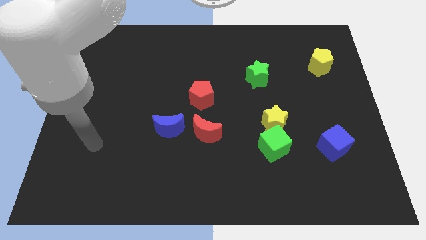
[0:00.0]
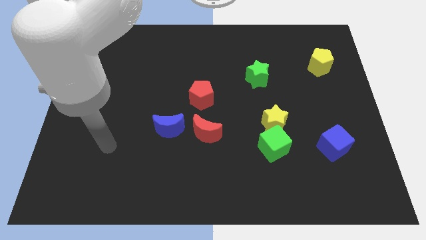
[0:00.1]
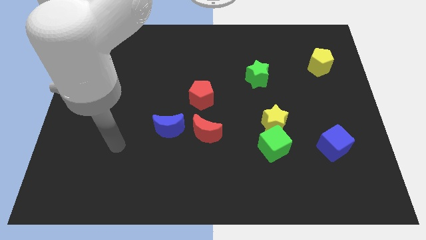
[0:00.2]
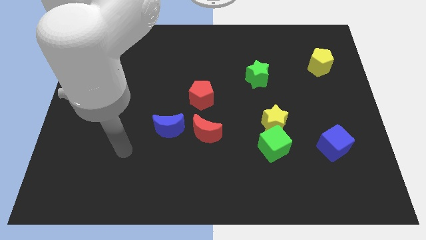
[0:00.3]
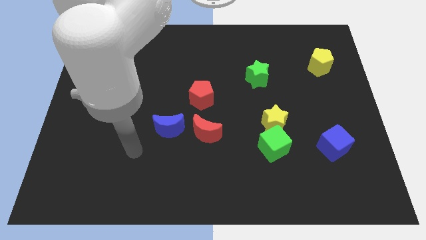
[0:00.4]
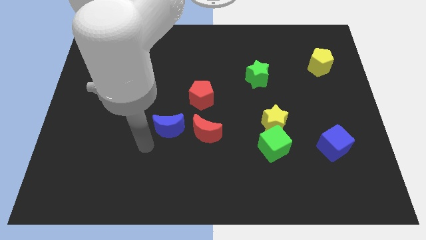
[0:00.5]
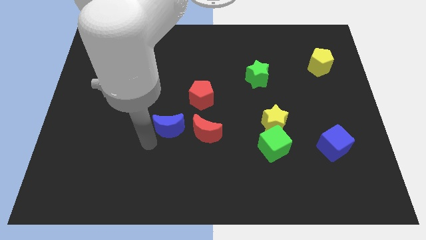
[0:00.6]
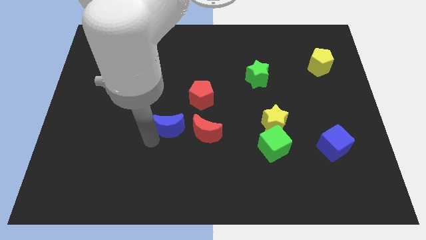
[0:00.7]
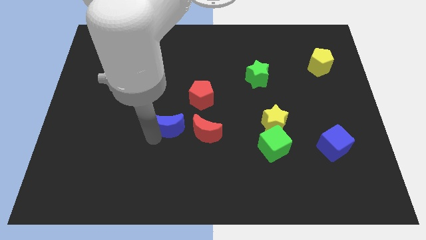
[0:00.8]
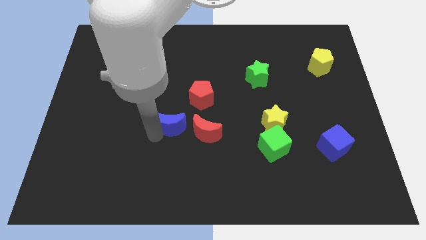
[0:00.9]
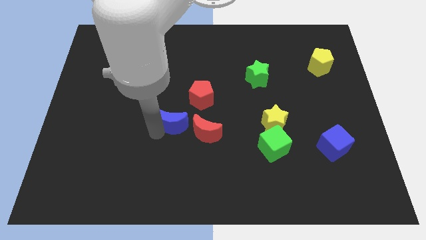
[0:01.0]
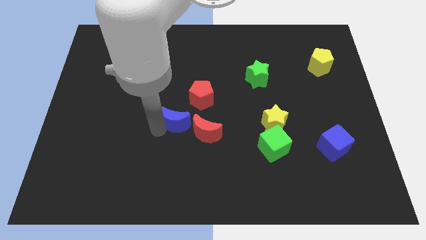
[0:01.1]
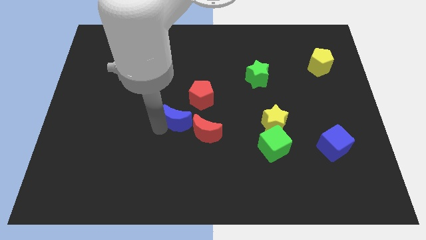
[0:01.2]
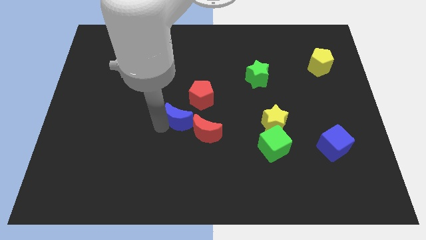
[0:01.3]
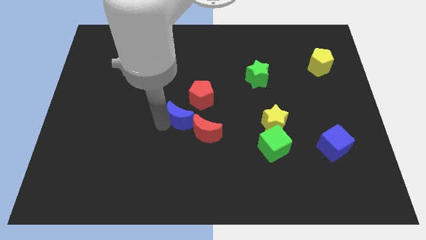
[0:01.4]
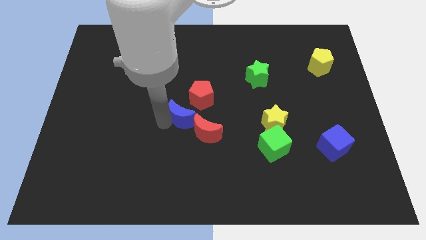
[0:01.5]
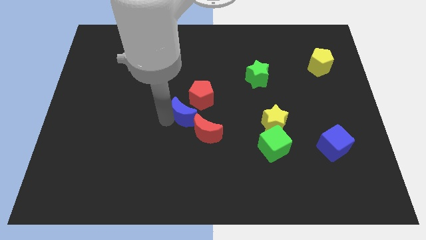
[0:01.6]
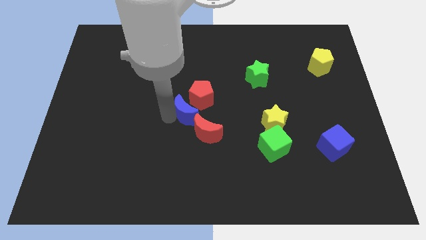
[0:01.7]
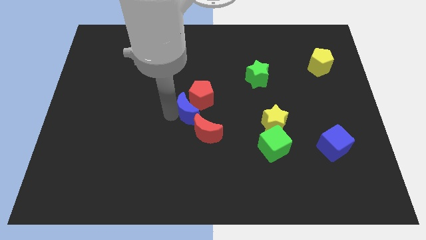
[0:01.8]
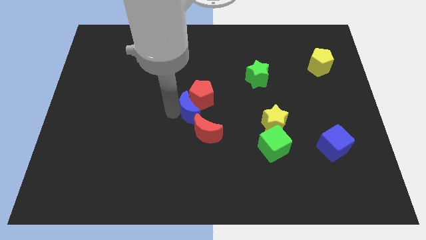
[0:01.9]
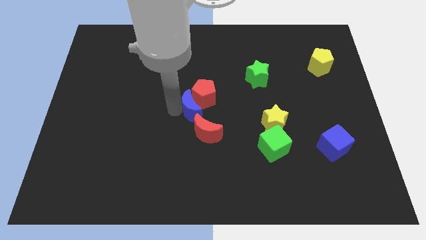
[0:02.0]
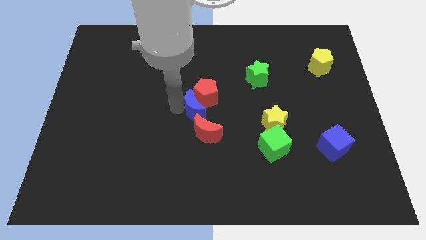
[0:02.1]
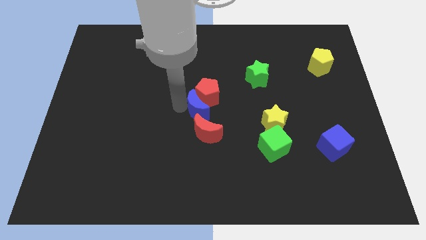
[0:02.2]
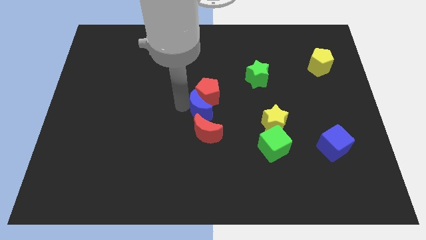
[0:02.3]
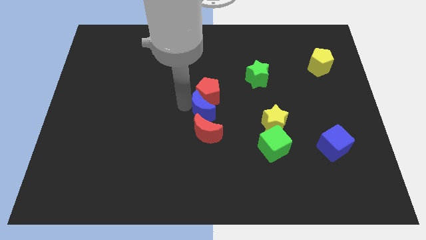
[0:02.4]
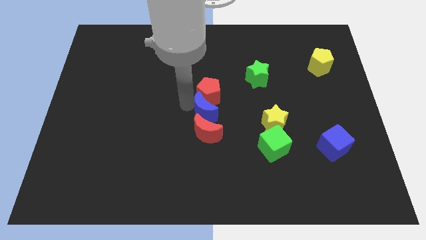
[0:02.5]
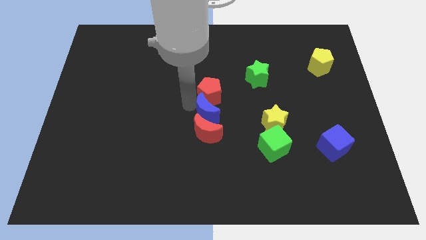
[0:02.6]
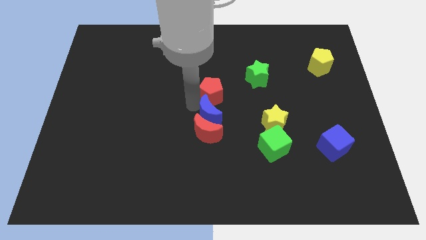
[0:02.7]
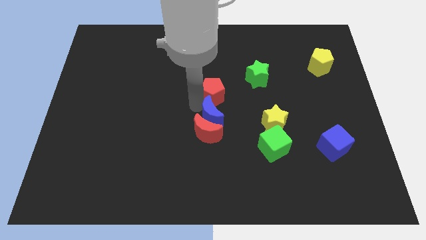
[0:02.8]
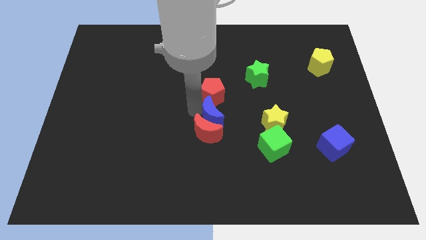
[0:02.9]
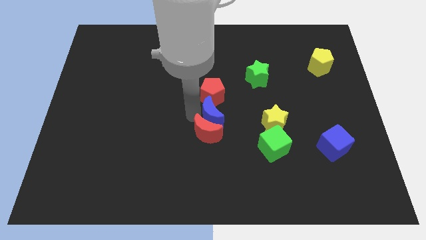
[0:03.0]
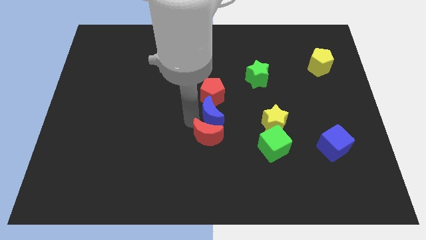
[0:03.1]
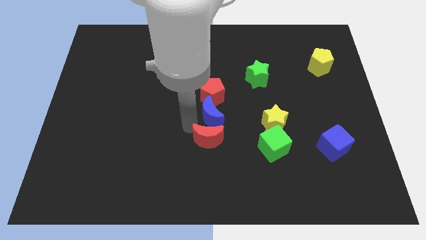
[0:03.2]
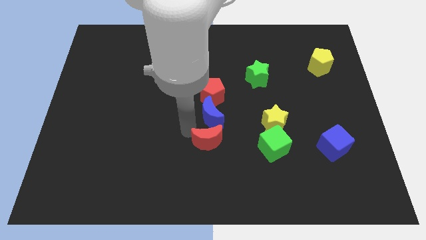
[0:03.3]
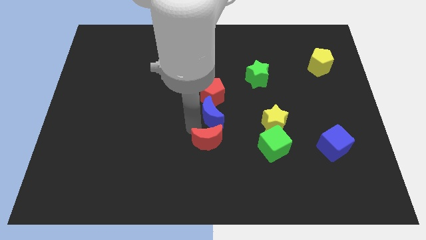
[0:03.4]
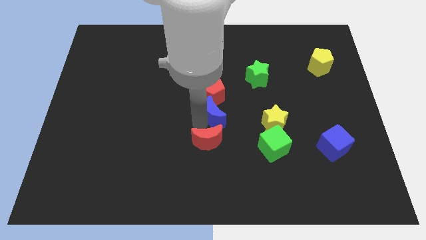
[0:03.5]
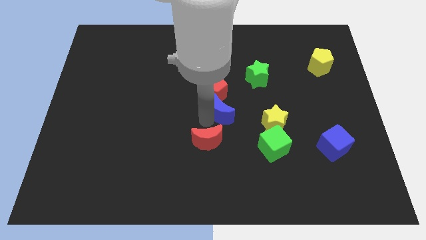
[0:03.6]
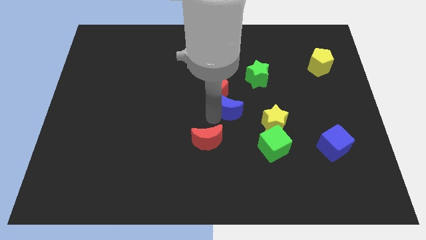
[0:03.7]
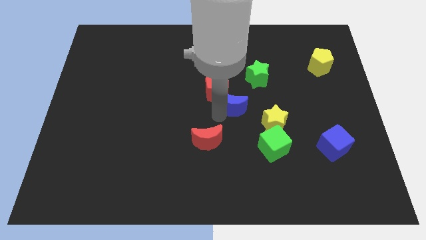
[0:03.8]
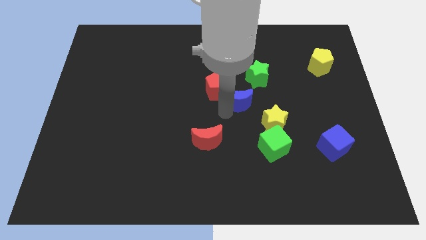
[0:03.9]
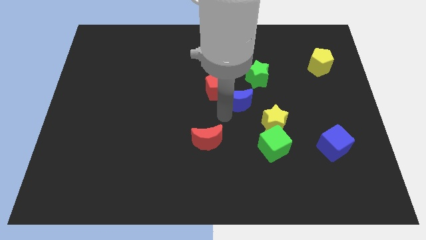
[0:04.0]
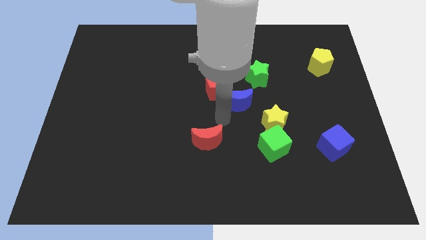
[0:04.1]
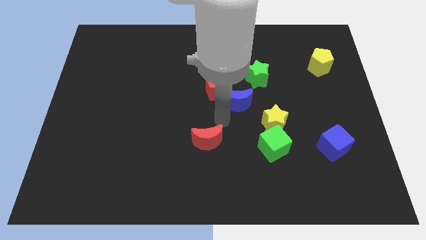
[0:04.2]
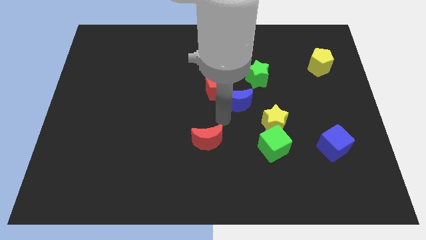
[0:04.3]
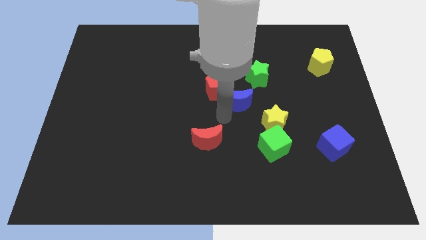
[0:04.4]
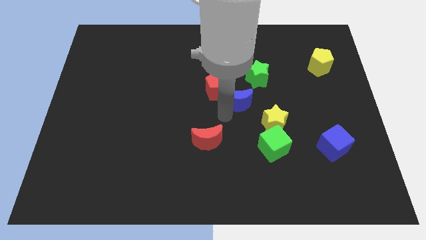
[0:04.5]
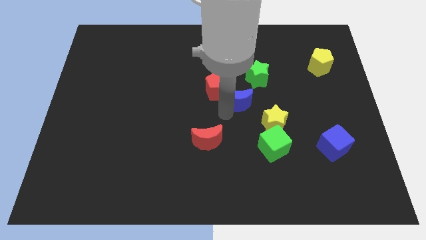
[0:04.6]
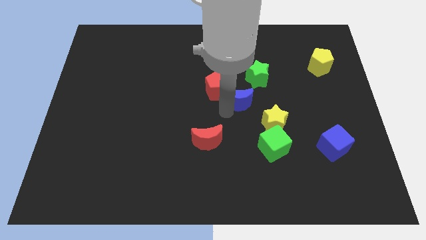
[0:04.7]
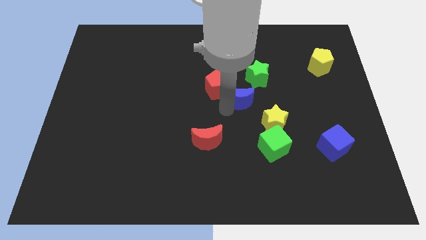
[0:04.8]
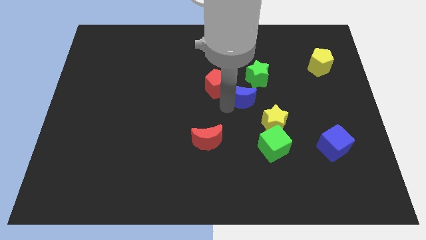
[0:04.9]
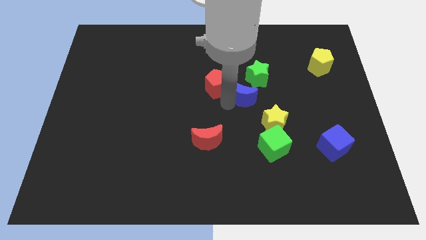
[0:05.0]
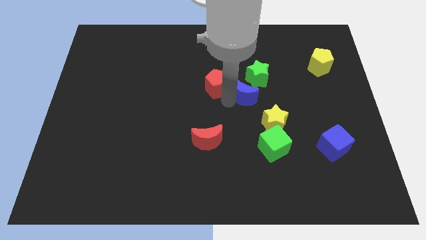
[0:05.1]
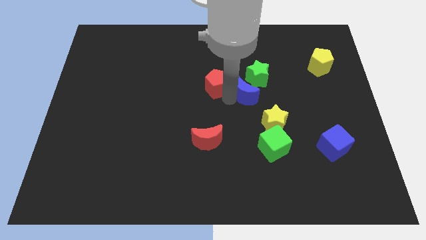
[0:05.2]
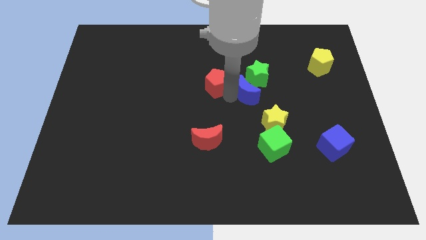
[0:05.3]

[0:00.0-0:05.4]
push the blue moon close to the green star

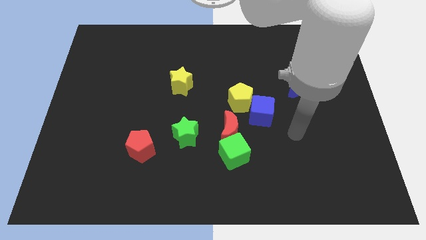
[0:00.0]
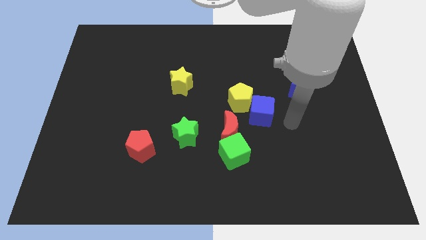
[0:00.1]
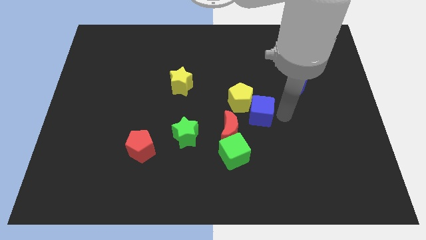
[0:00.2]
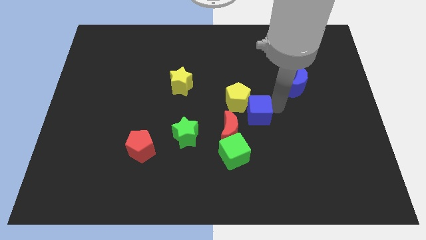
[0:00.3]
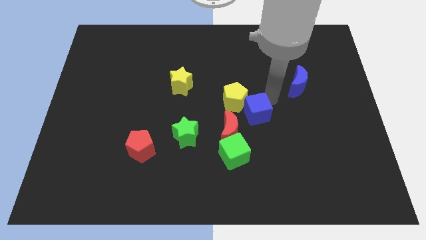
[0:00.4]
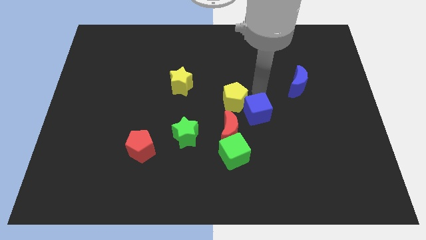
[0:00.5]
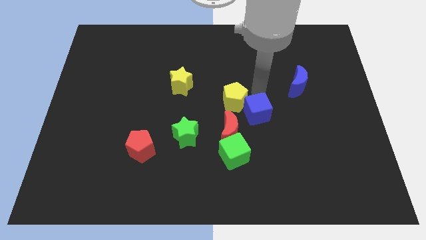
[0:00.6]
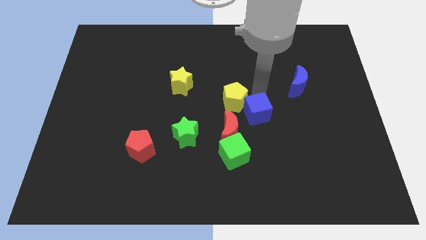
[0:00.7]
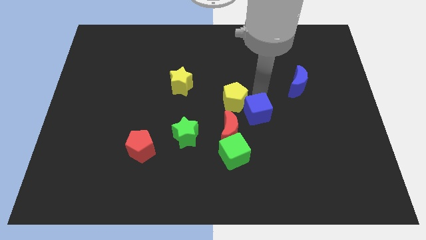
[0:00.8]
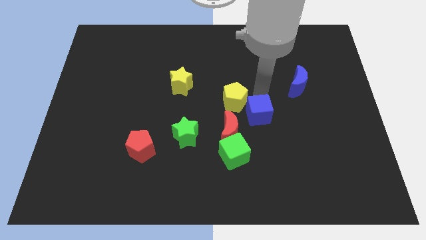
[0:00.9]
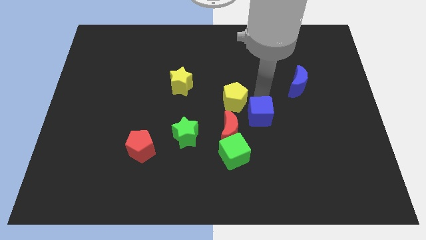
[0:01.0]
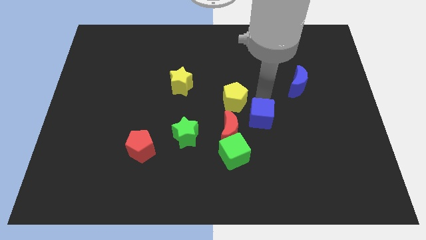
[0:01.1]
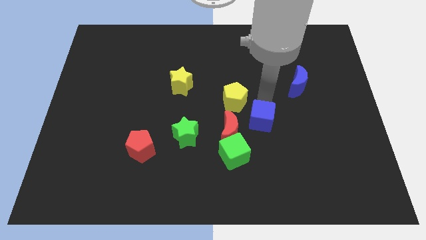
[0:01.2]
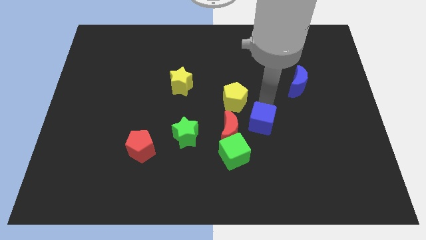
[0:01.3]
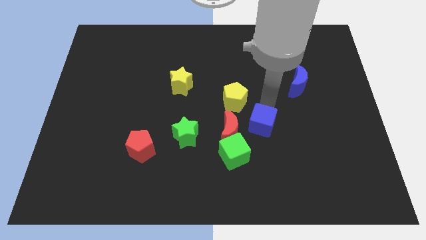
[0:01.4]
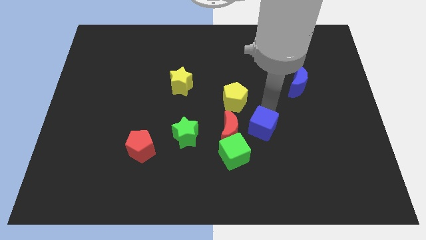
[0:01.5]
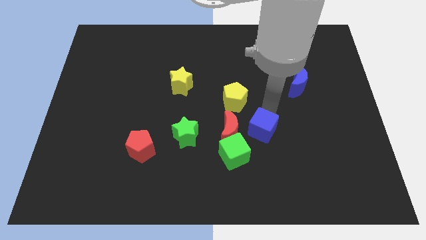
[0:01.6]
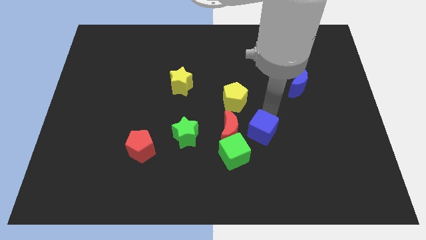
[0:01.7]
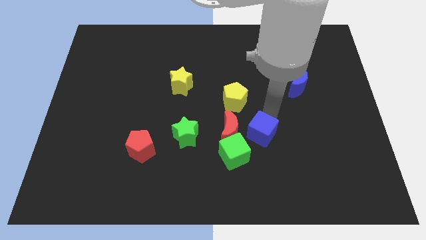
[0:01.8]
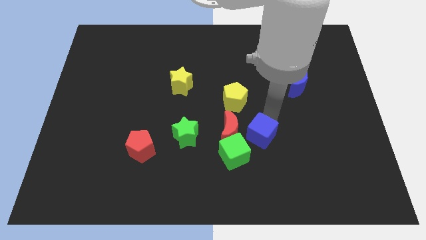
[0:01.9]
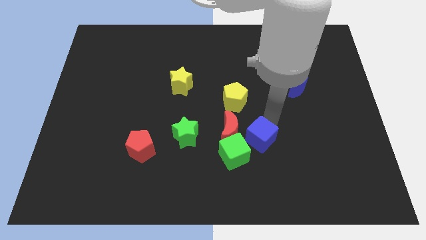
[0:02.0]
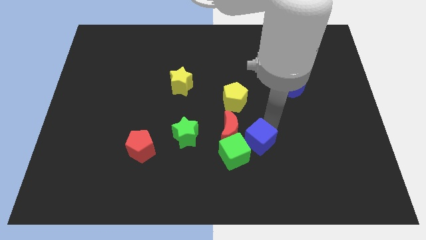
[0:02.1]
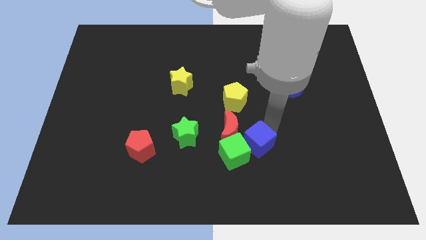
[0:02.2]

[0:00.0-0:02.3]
push the blue cube to the green cube

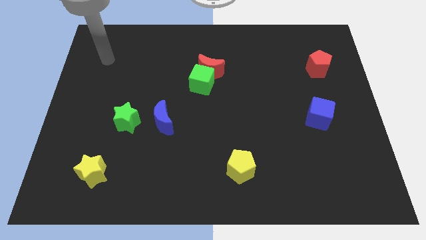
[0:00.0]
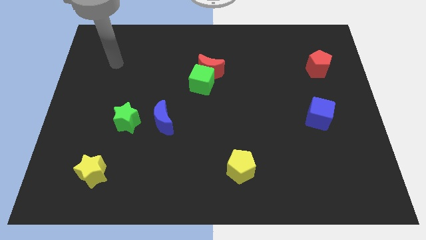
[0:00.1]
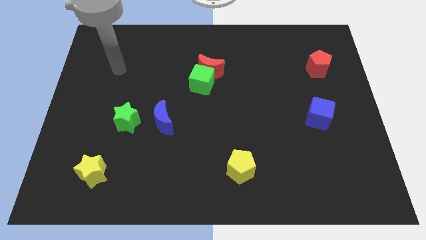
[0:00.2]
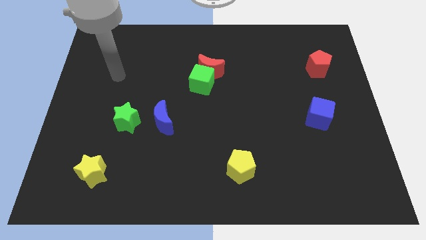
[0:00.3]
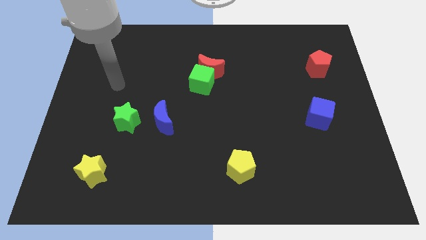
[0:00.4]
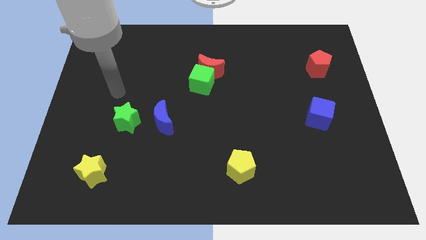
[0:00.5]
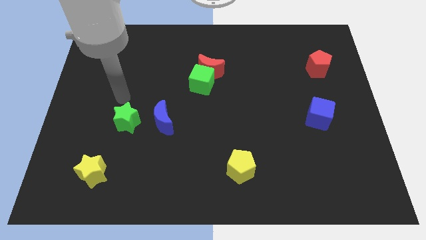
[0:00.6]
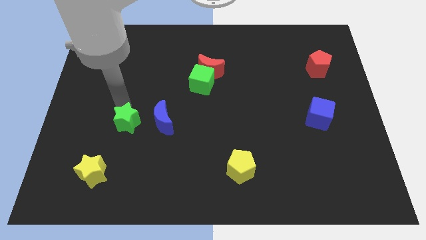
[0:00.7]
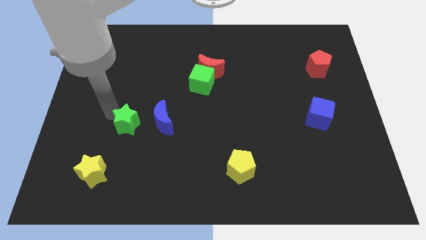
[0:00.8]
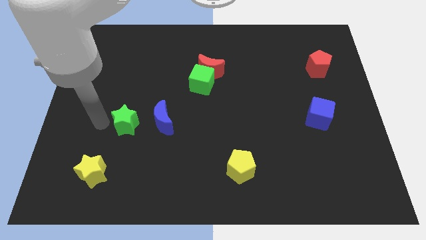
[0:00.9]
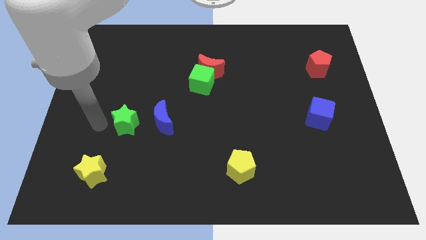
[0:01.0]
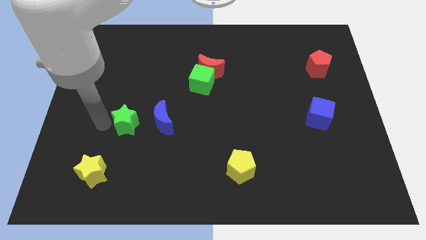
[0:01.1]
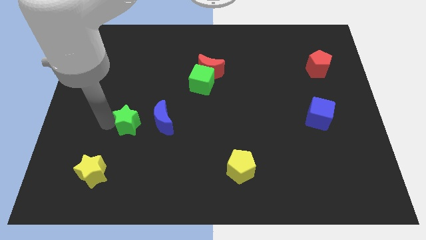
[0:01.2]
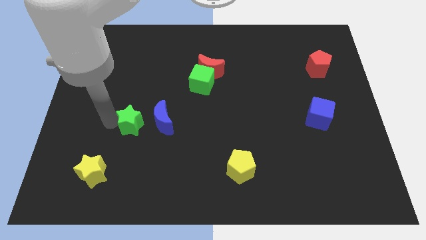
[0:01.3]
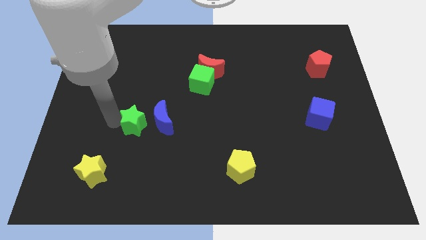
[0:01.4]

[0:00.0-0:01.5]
put the green star towards the blue moon
